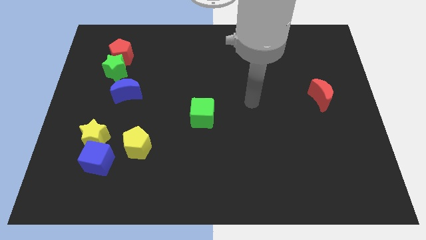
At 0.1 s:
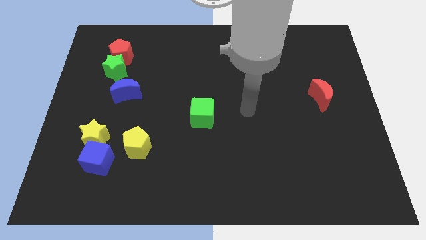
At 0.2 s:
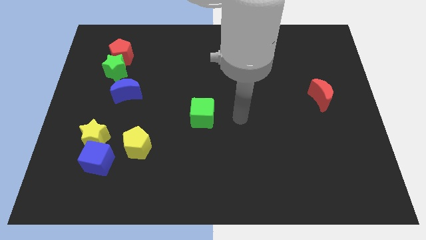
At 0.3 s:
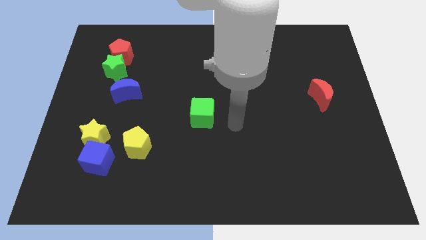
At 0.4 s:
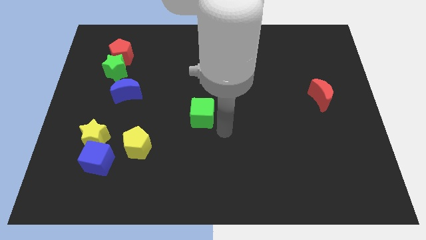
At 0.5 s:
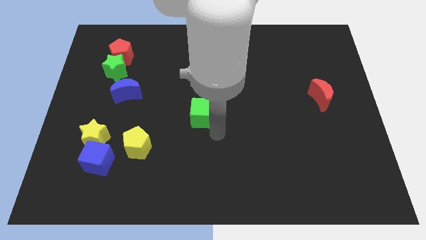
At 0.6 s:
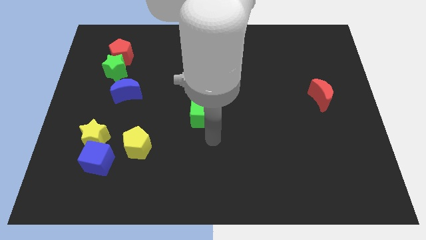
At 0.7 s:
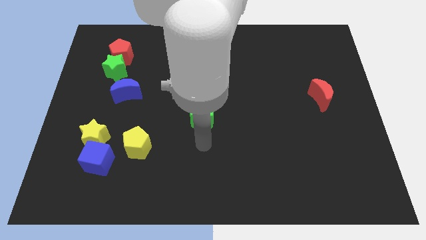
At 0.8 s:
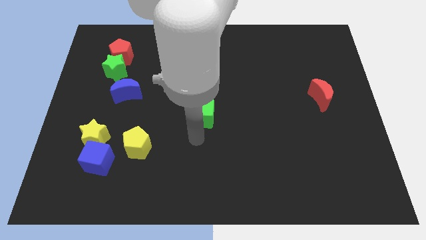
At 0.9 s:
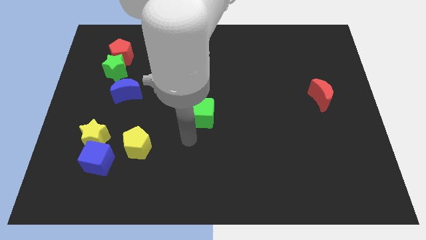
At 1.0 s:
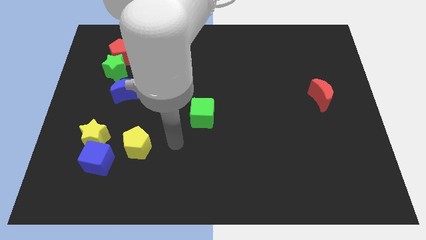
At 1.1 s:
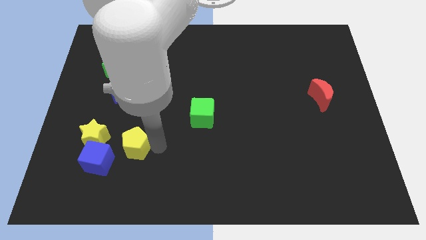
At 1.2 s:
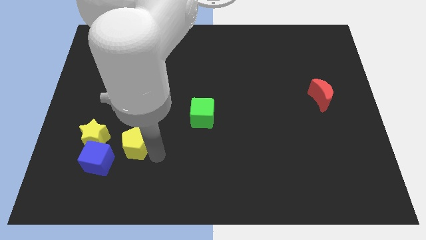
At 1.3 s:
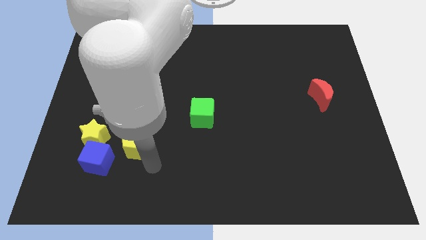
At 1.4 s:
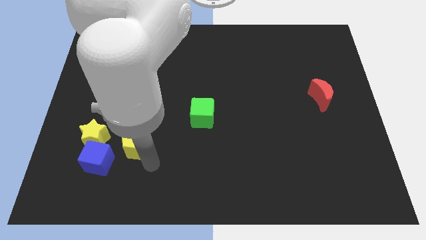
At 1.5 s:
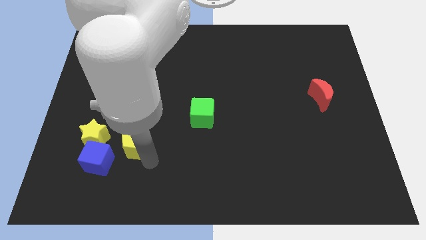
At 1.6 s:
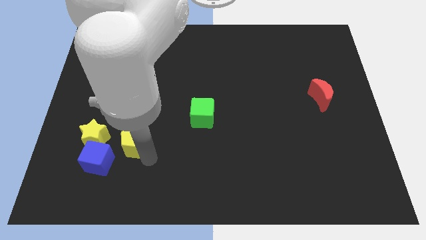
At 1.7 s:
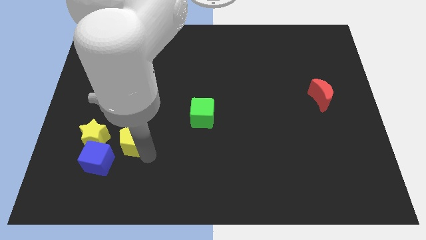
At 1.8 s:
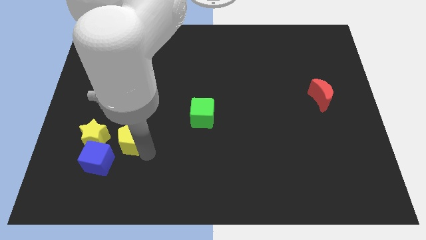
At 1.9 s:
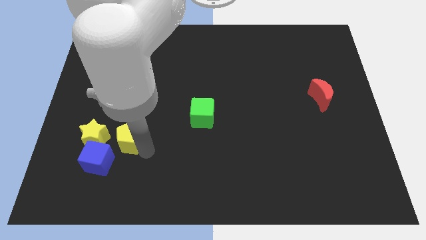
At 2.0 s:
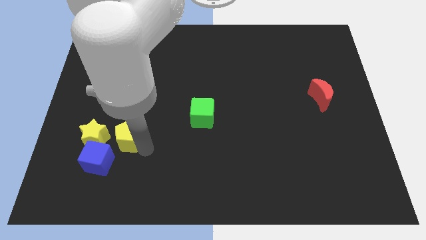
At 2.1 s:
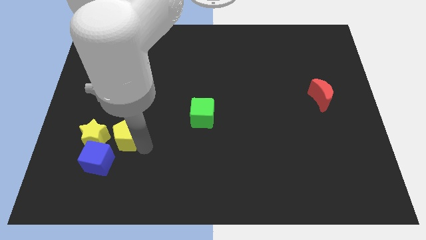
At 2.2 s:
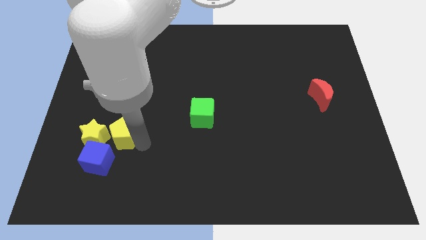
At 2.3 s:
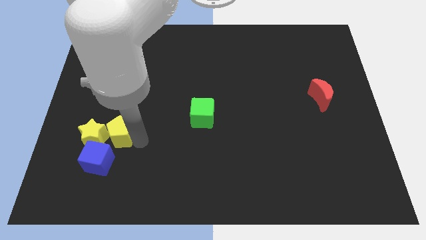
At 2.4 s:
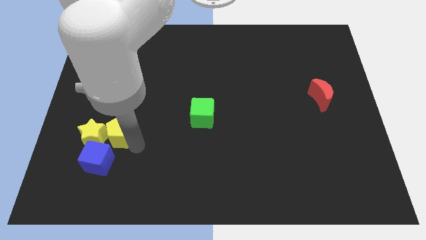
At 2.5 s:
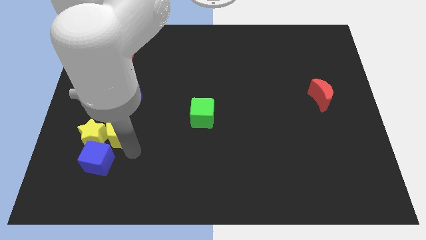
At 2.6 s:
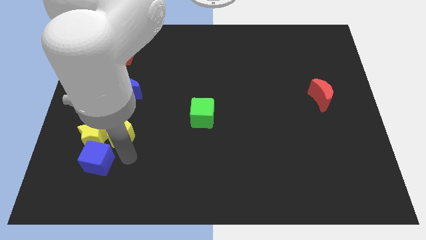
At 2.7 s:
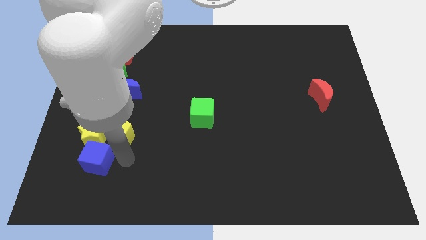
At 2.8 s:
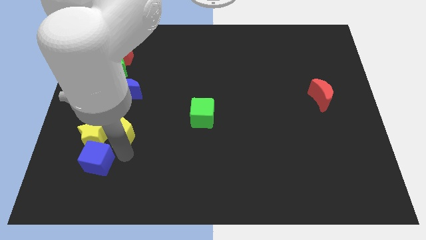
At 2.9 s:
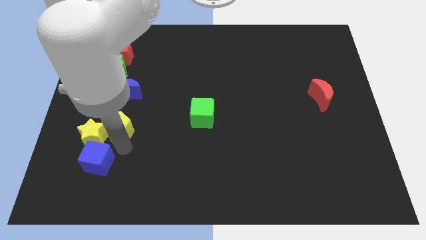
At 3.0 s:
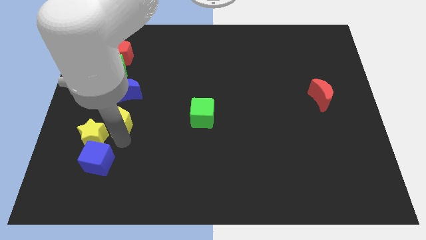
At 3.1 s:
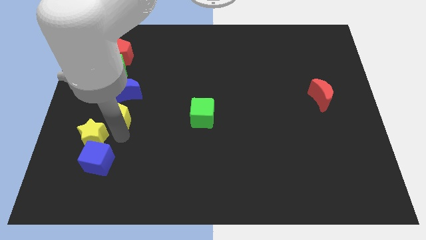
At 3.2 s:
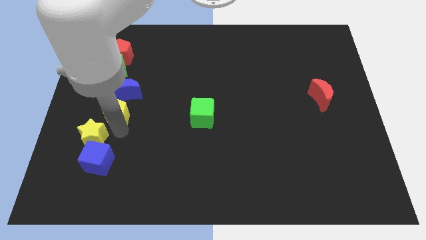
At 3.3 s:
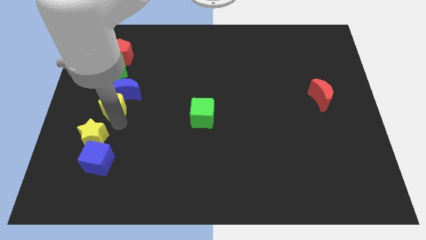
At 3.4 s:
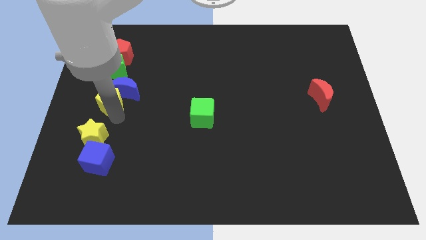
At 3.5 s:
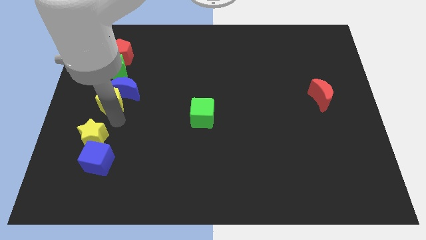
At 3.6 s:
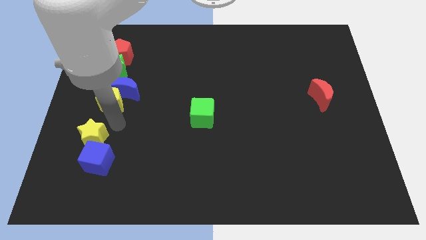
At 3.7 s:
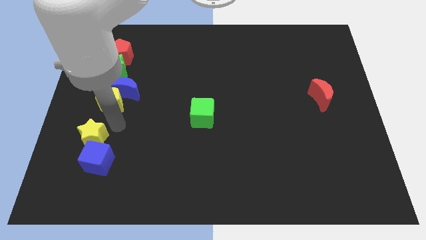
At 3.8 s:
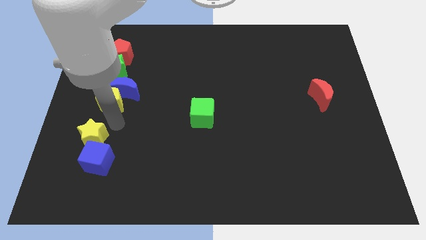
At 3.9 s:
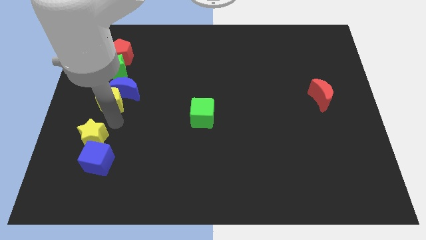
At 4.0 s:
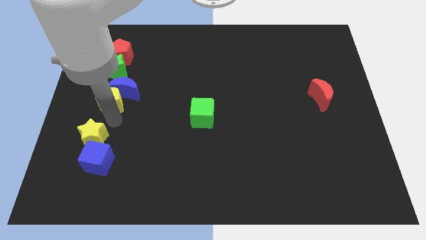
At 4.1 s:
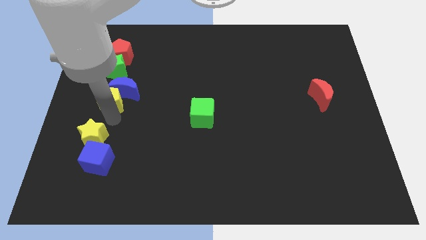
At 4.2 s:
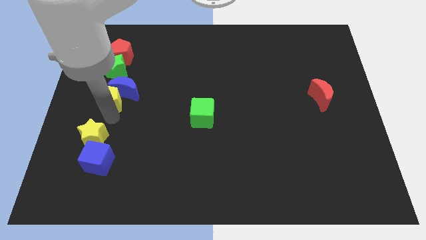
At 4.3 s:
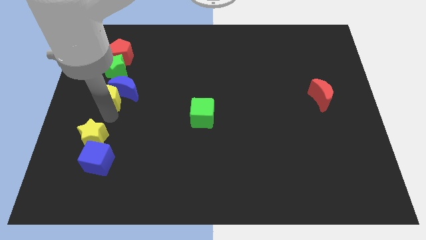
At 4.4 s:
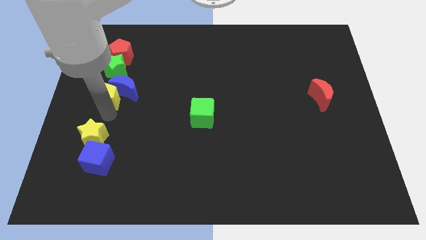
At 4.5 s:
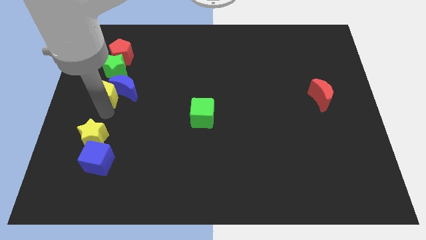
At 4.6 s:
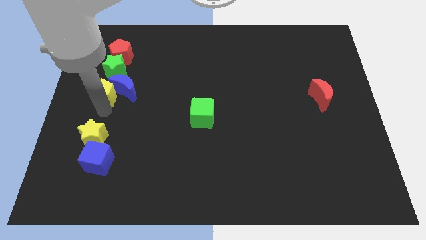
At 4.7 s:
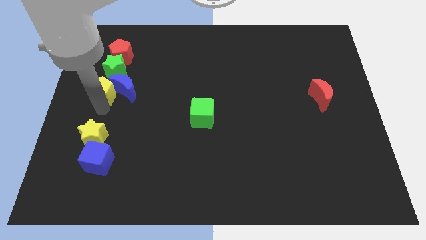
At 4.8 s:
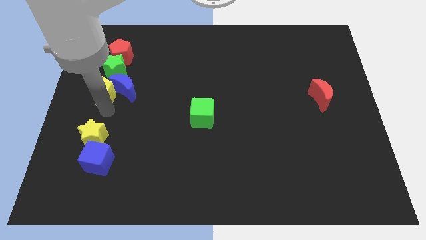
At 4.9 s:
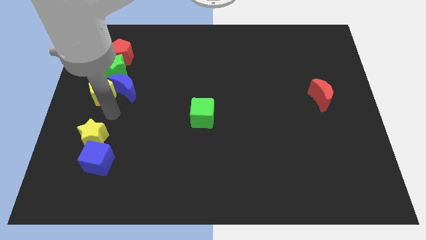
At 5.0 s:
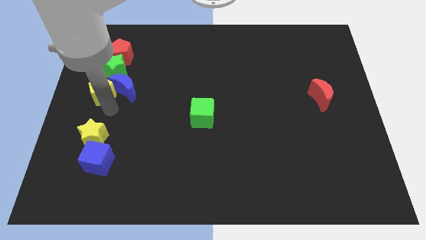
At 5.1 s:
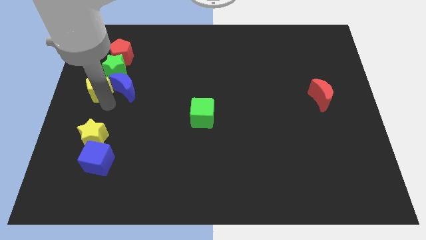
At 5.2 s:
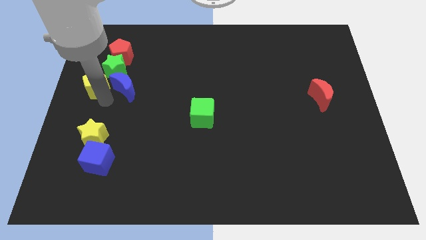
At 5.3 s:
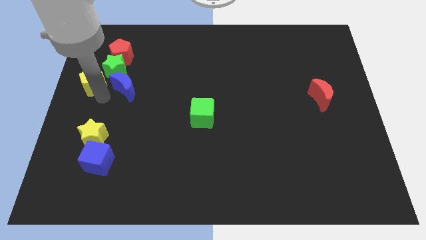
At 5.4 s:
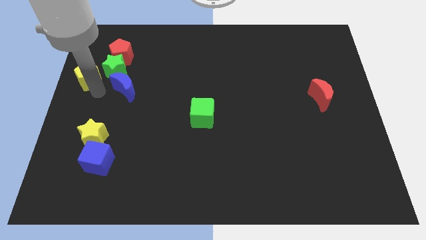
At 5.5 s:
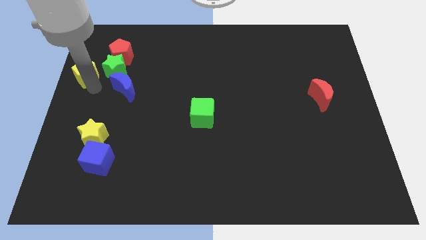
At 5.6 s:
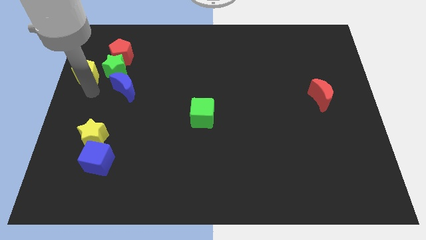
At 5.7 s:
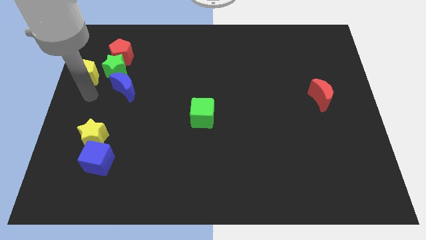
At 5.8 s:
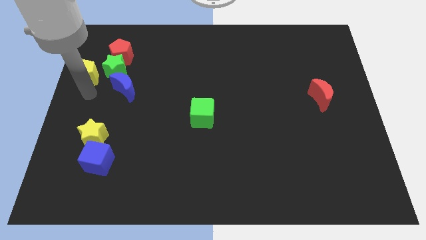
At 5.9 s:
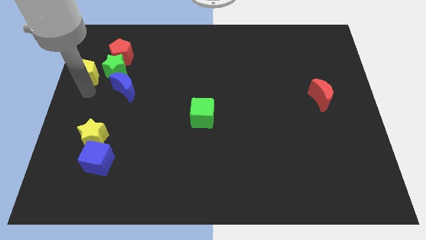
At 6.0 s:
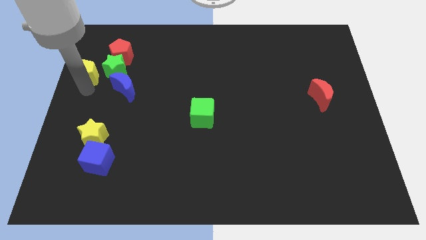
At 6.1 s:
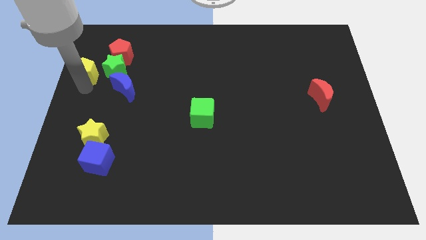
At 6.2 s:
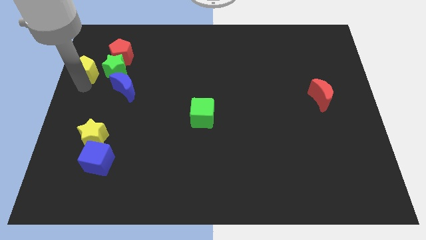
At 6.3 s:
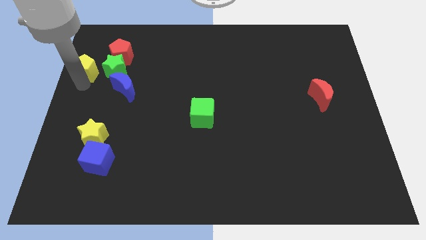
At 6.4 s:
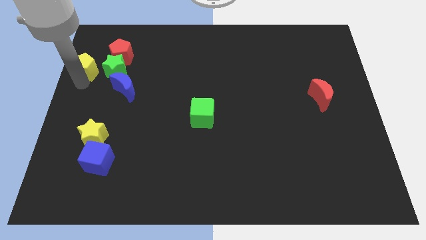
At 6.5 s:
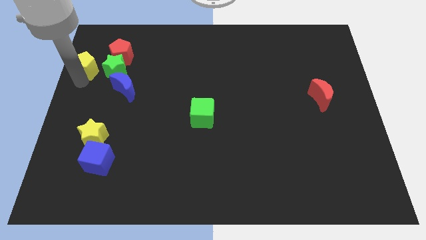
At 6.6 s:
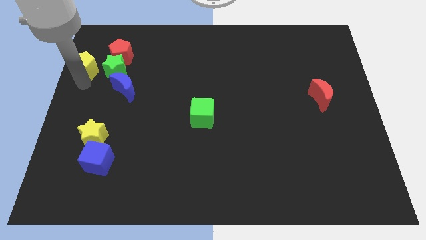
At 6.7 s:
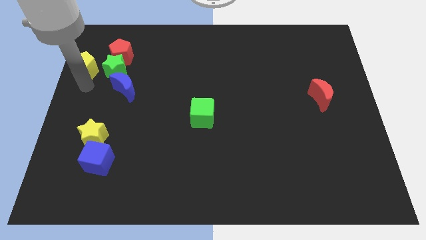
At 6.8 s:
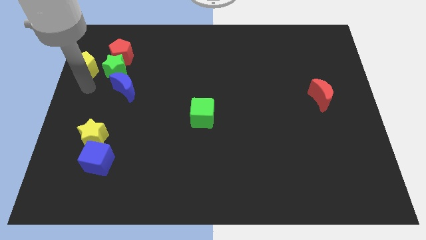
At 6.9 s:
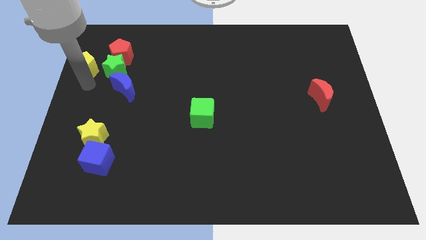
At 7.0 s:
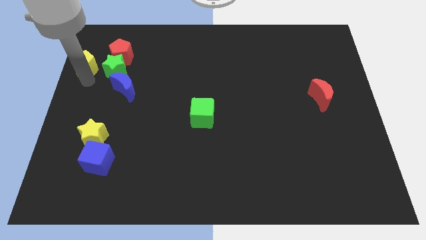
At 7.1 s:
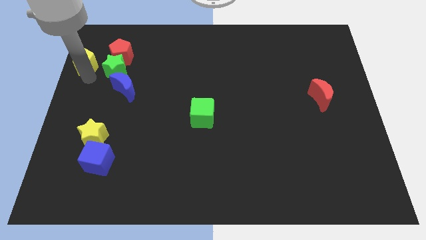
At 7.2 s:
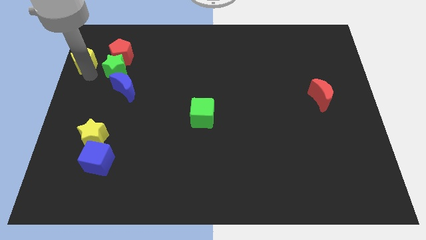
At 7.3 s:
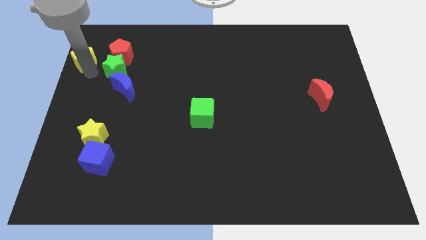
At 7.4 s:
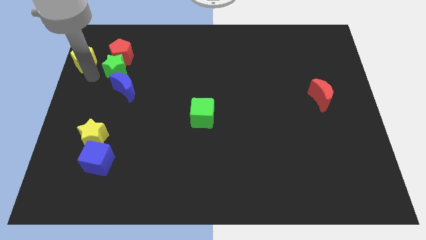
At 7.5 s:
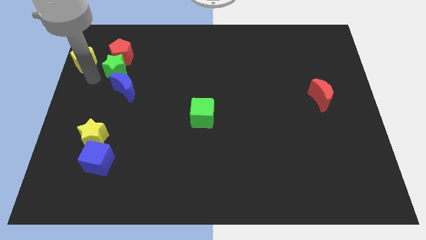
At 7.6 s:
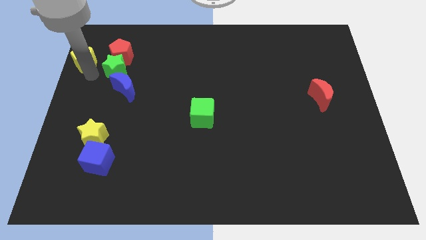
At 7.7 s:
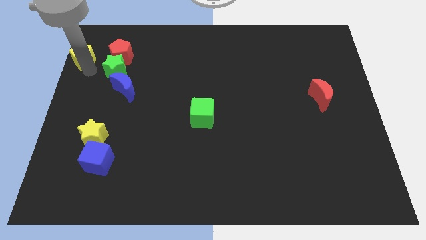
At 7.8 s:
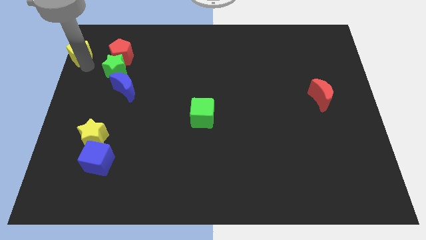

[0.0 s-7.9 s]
put the yellow pentagon to the top left of the board
